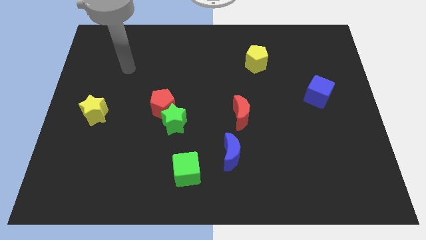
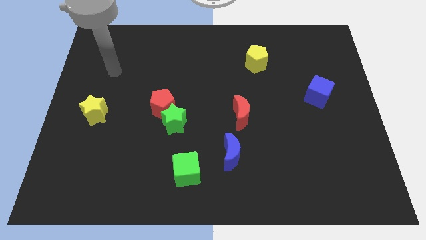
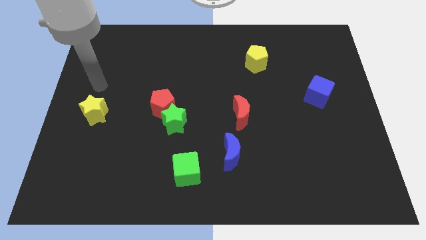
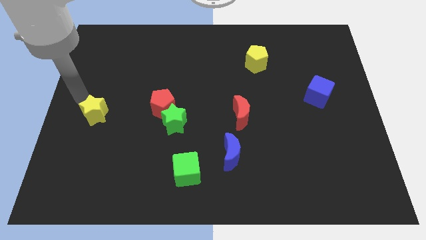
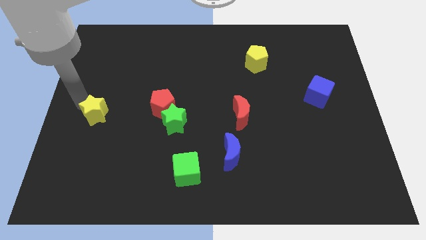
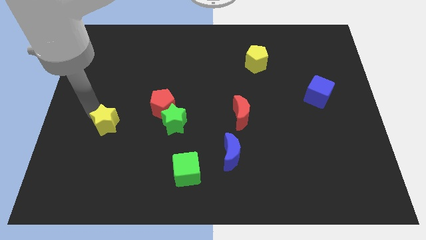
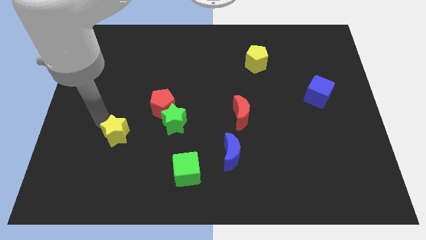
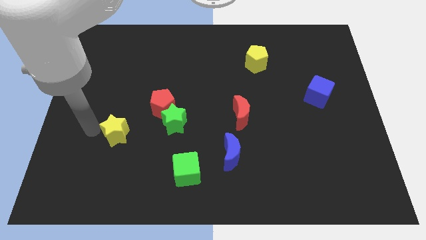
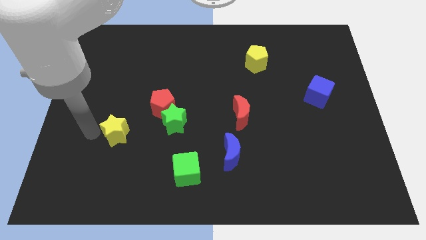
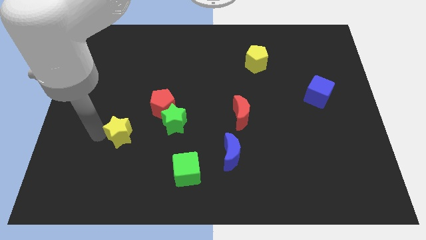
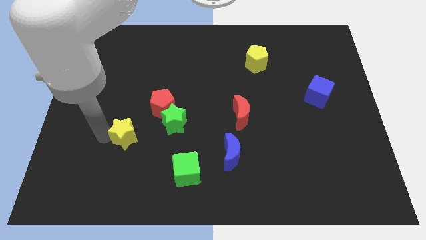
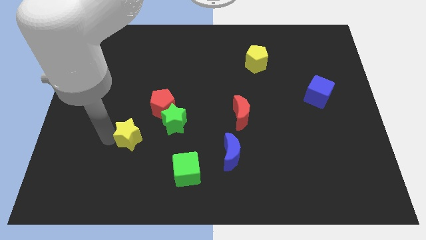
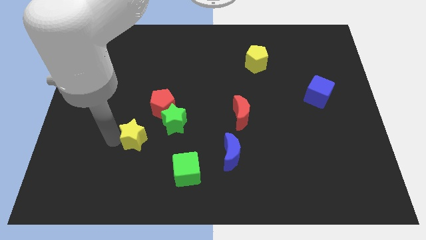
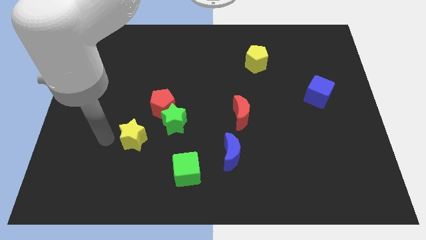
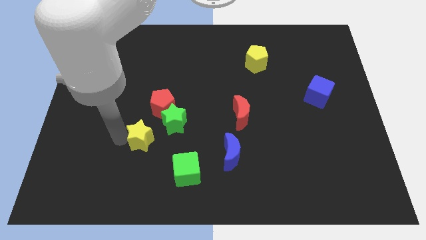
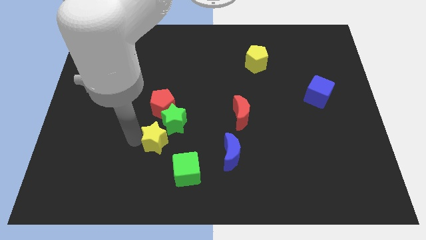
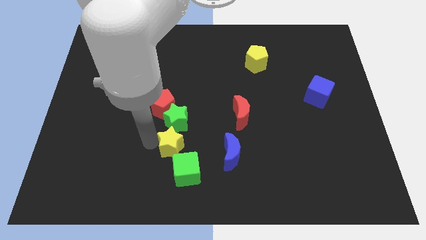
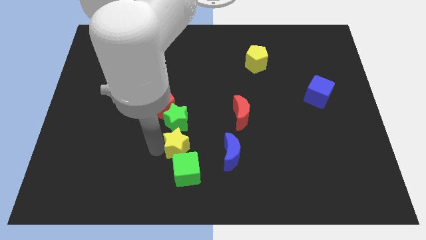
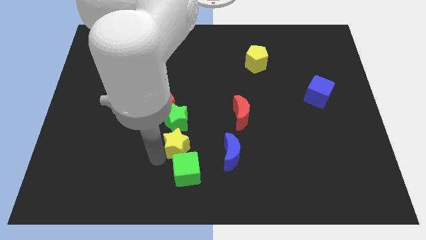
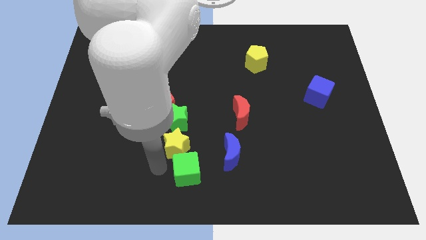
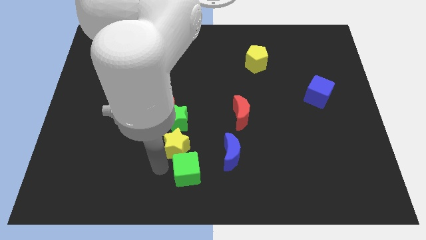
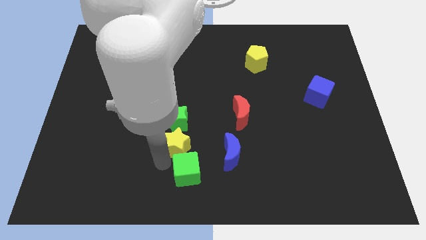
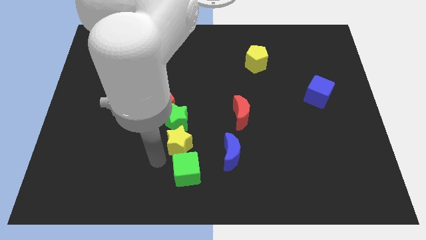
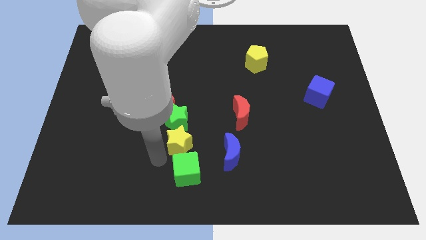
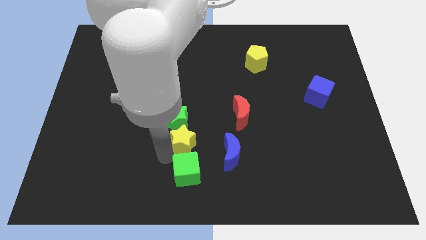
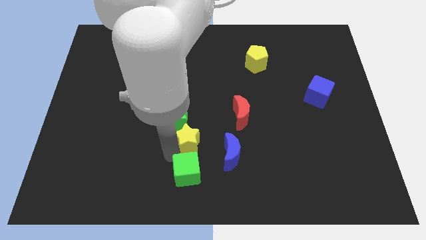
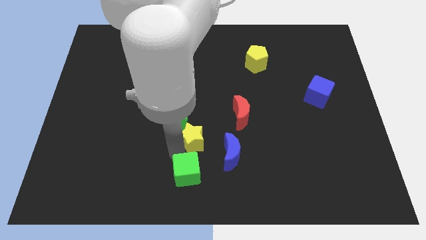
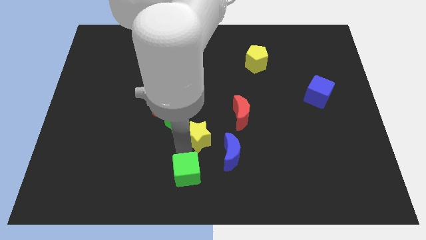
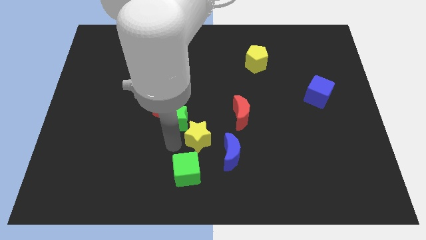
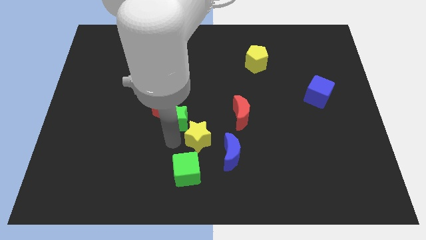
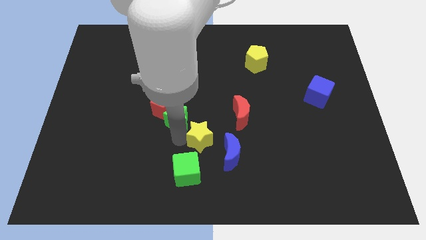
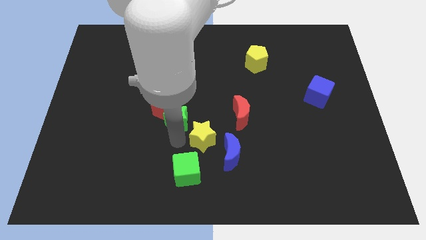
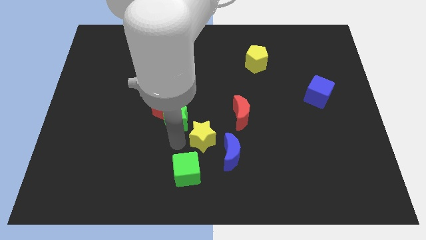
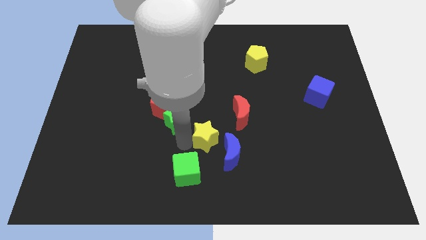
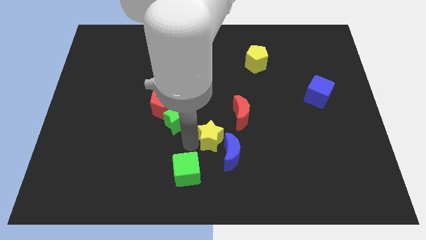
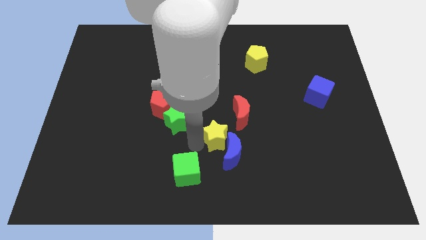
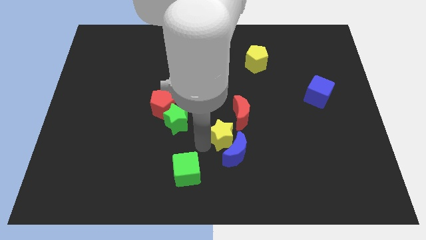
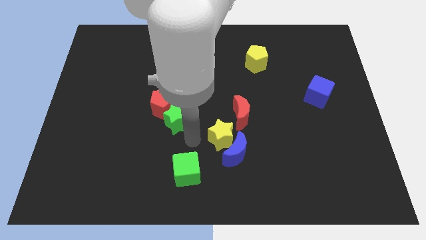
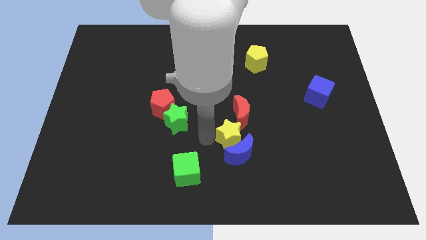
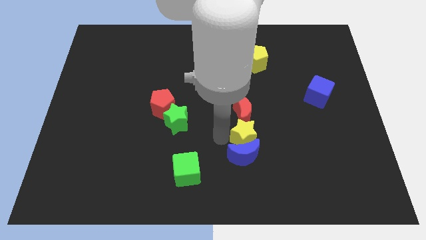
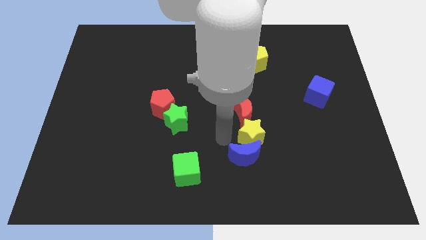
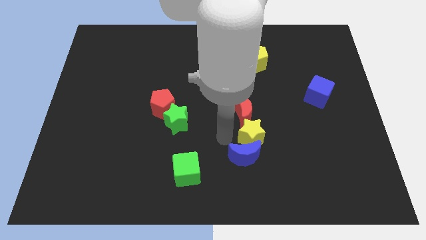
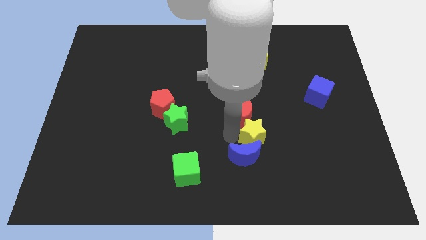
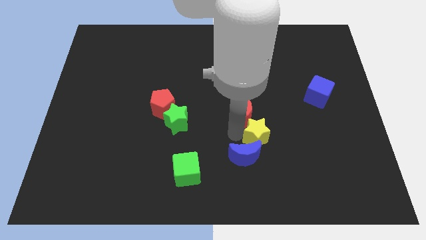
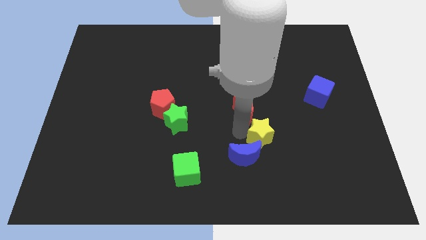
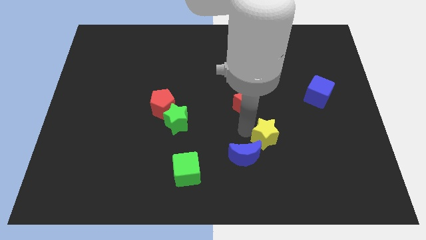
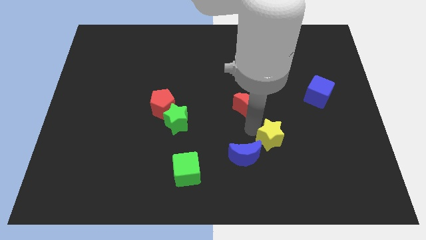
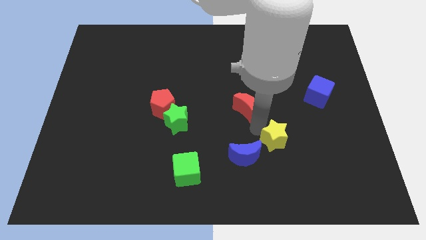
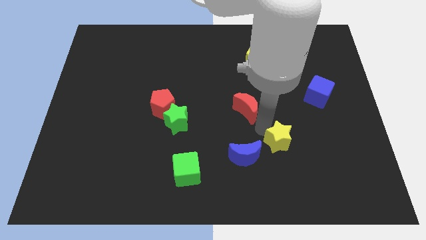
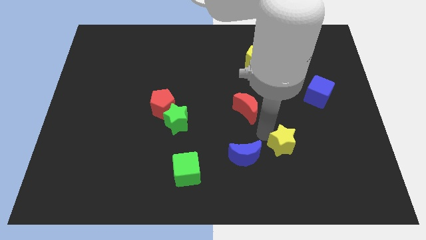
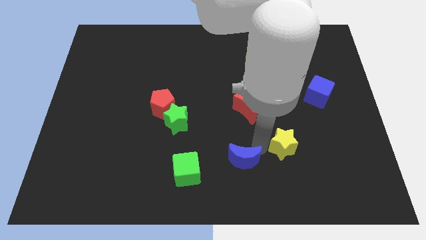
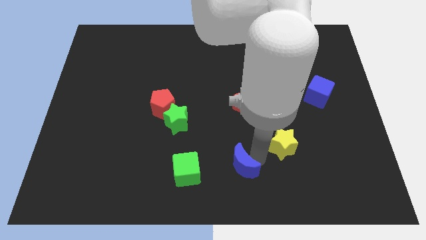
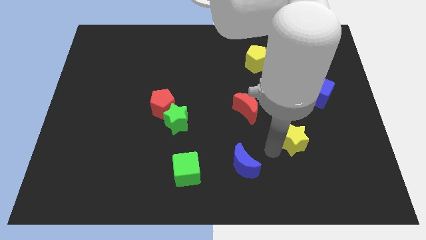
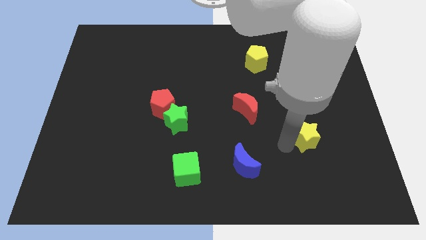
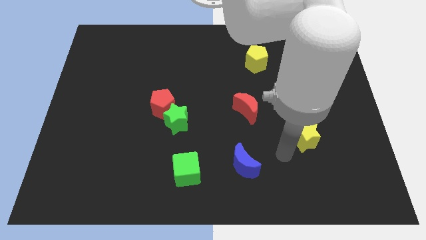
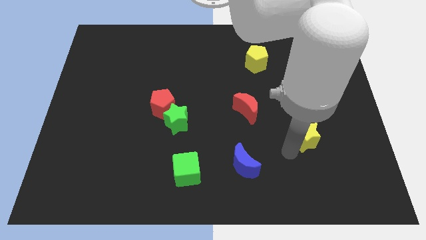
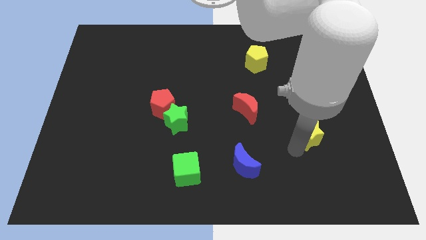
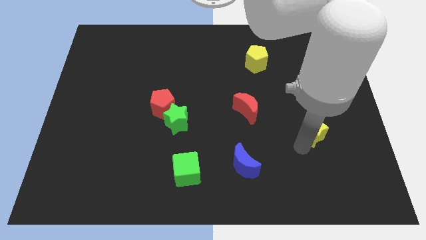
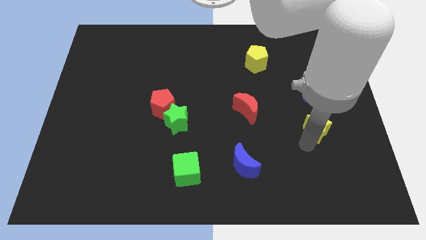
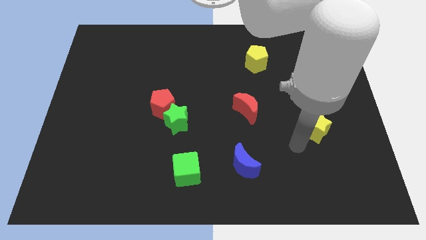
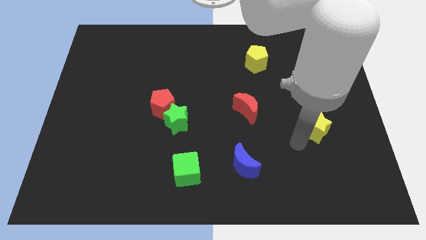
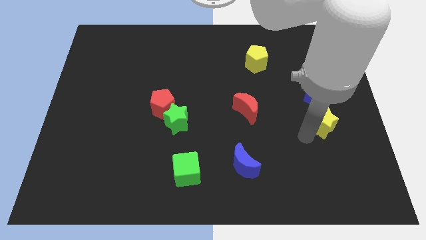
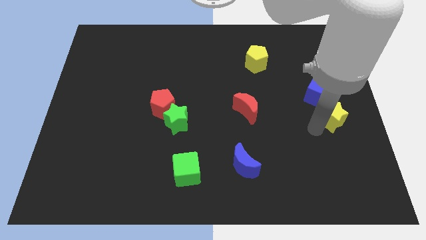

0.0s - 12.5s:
move the yellow star to the right side of the board
